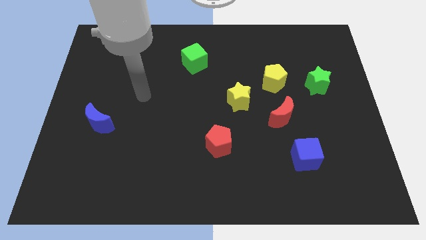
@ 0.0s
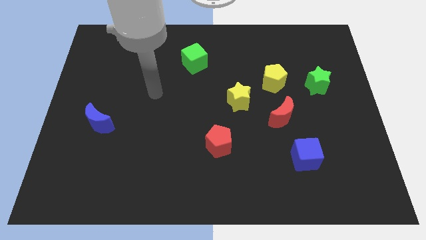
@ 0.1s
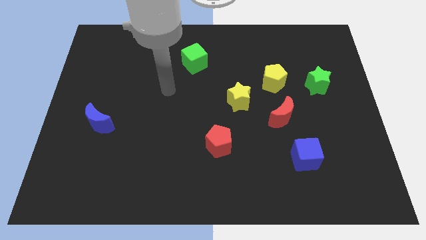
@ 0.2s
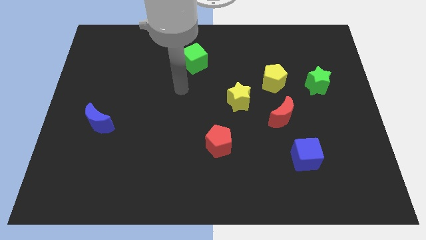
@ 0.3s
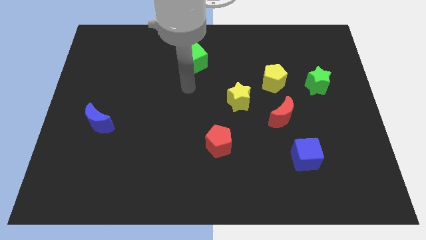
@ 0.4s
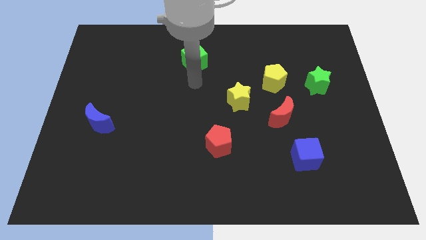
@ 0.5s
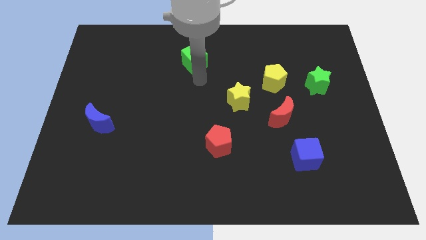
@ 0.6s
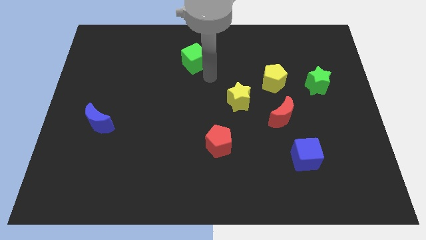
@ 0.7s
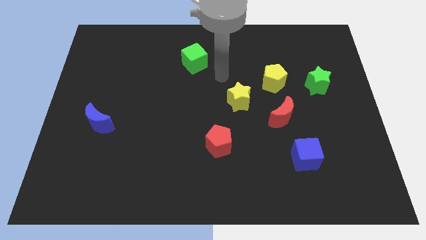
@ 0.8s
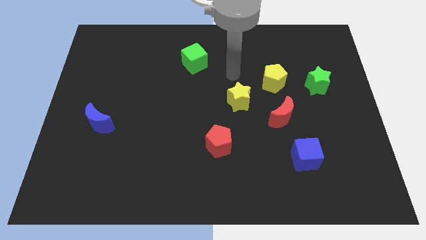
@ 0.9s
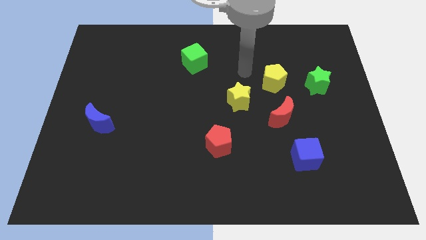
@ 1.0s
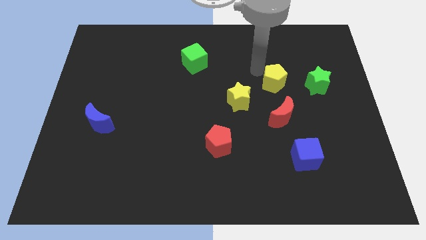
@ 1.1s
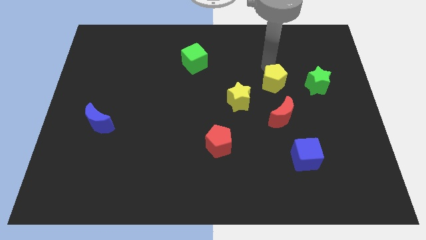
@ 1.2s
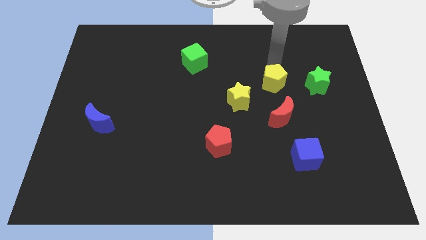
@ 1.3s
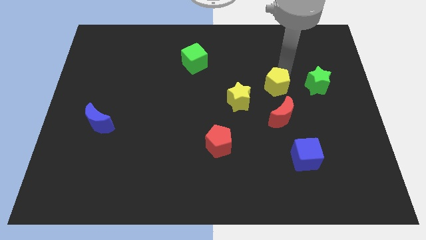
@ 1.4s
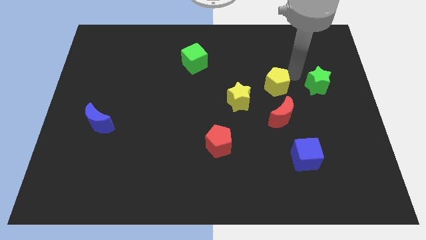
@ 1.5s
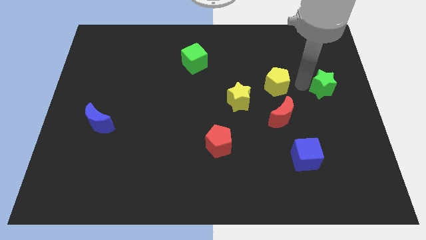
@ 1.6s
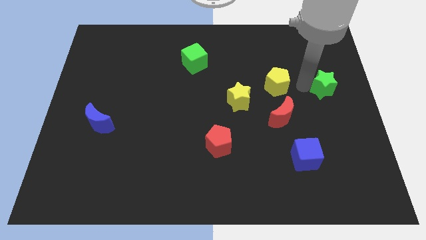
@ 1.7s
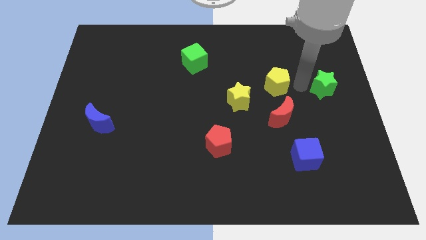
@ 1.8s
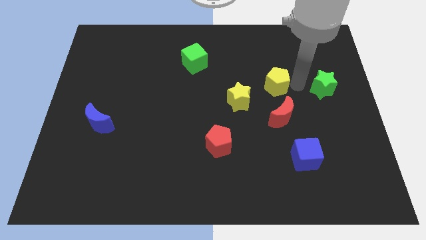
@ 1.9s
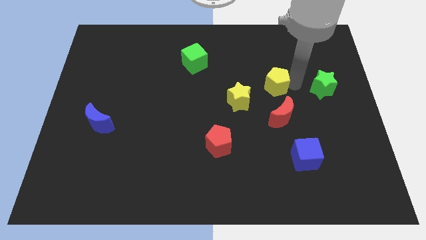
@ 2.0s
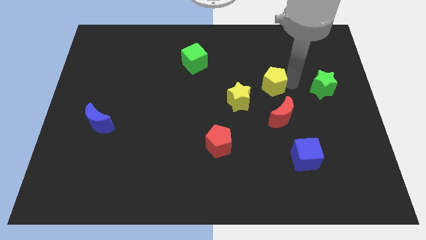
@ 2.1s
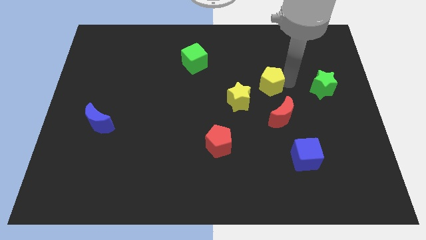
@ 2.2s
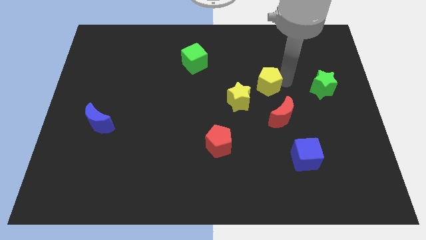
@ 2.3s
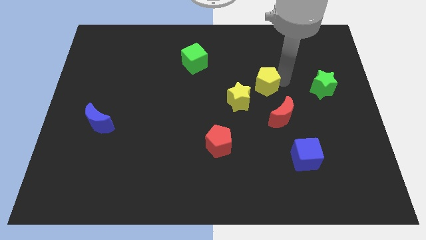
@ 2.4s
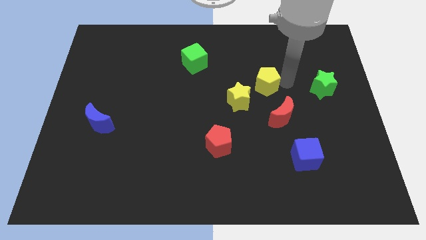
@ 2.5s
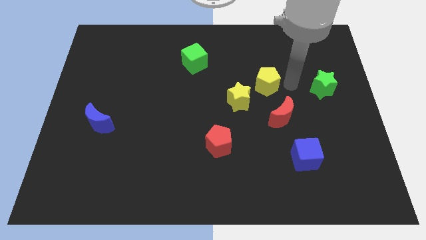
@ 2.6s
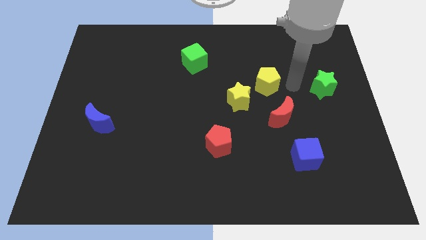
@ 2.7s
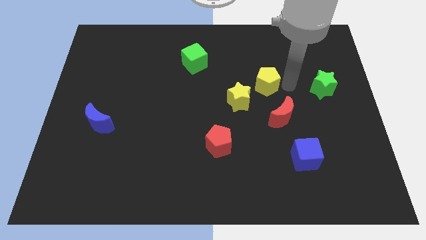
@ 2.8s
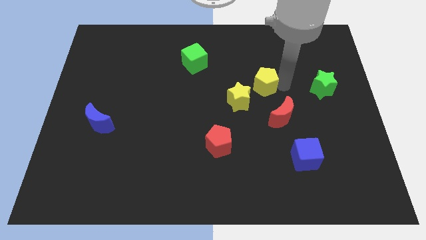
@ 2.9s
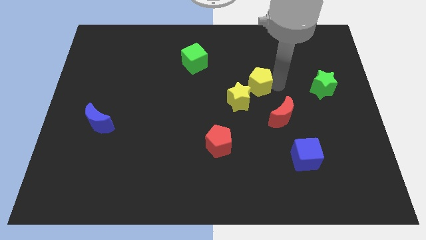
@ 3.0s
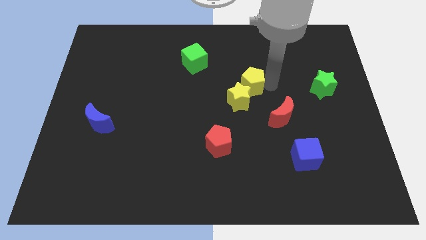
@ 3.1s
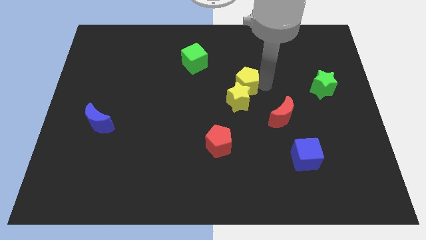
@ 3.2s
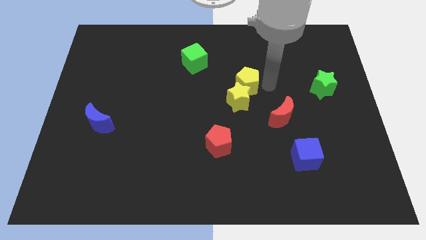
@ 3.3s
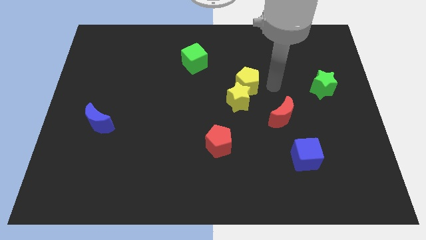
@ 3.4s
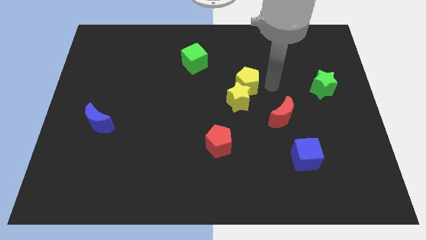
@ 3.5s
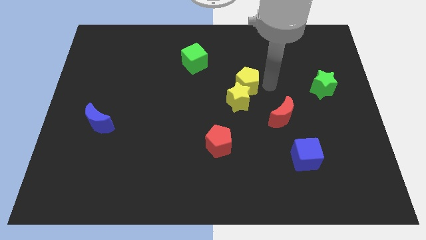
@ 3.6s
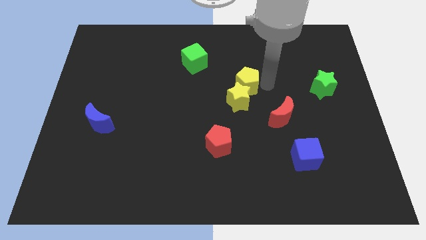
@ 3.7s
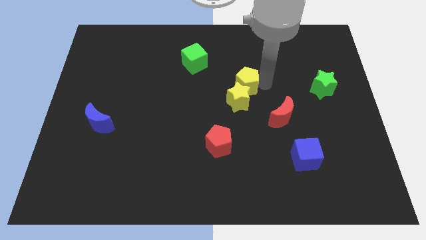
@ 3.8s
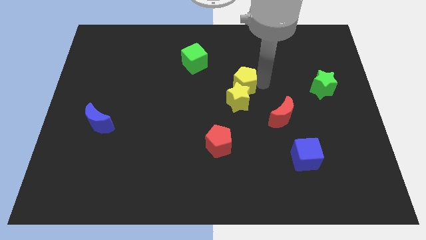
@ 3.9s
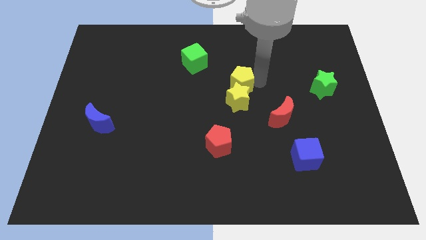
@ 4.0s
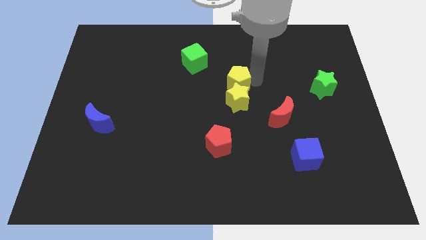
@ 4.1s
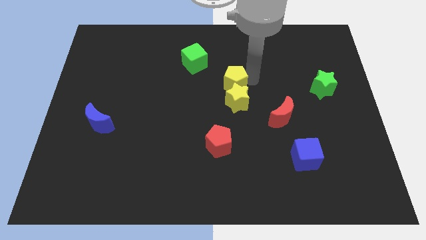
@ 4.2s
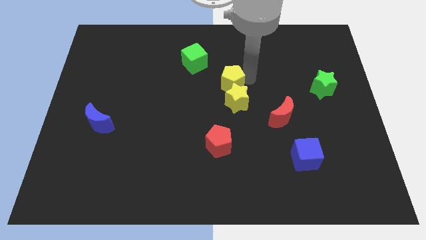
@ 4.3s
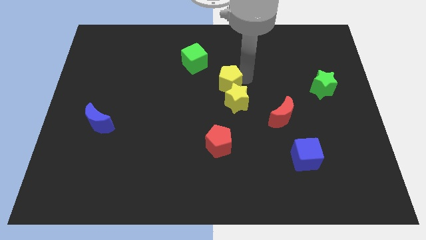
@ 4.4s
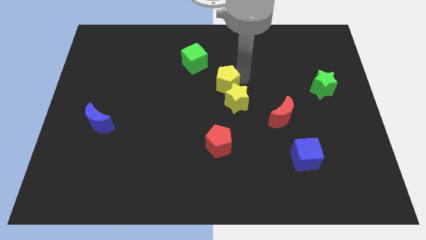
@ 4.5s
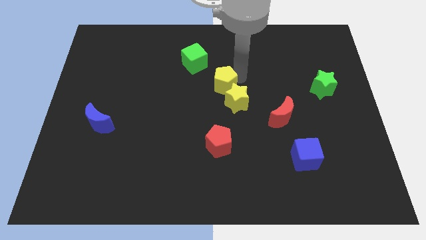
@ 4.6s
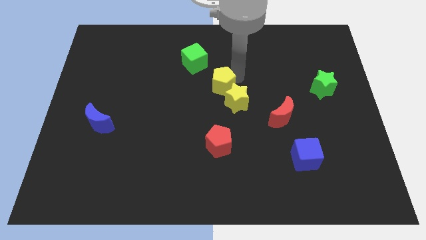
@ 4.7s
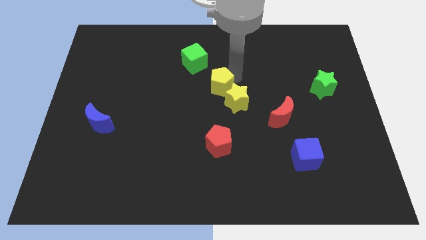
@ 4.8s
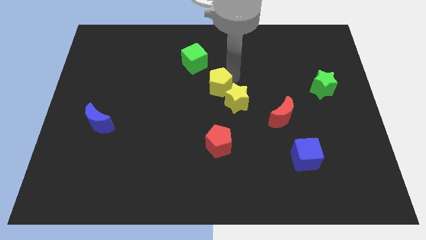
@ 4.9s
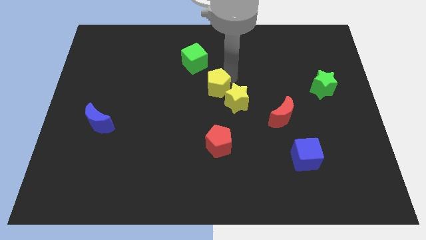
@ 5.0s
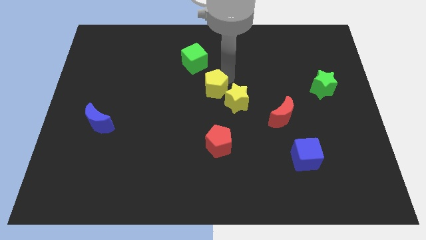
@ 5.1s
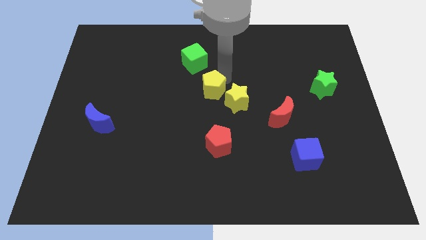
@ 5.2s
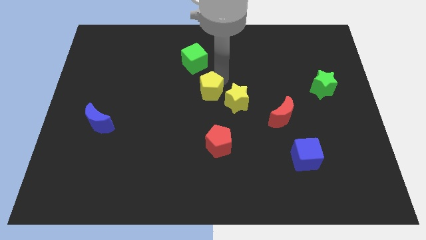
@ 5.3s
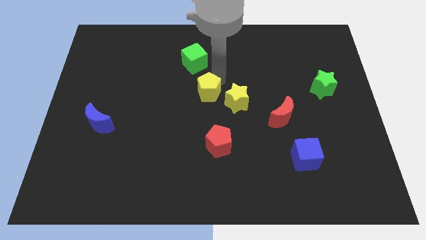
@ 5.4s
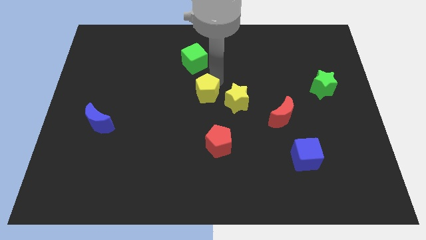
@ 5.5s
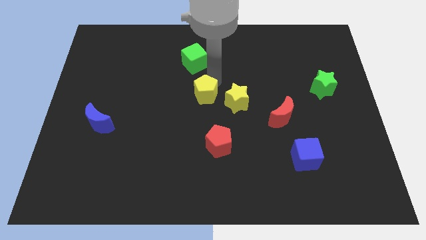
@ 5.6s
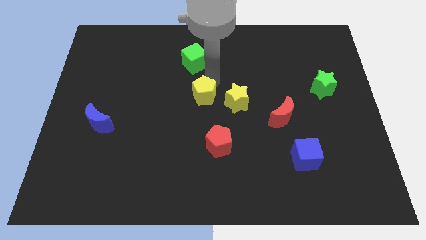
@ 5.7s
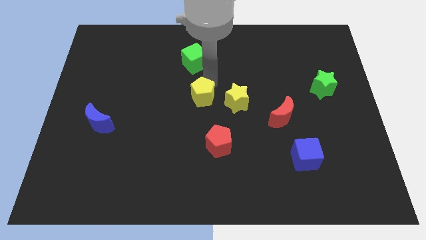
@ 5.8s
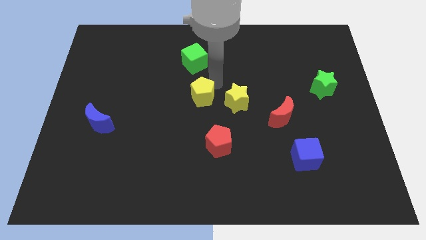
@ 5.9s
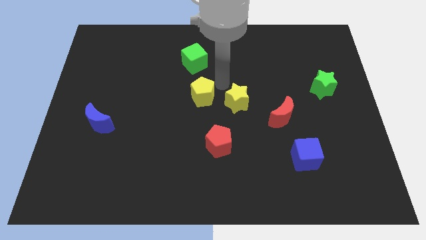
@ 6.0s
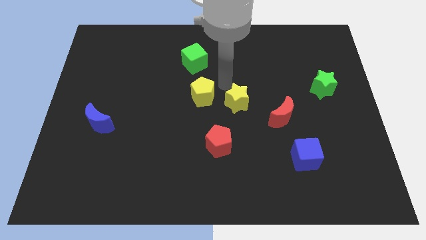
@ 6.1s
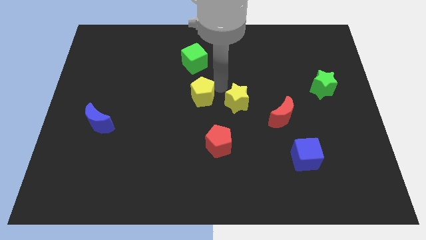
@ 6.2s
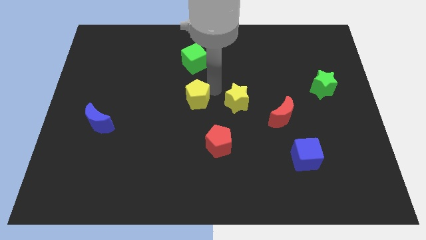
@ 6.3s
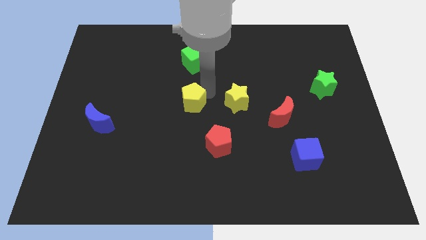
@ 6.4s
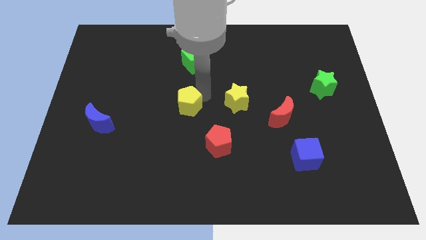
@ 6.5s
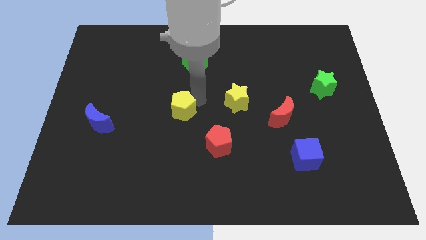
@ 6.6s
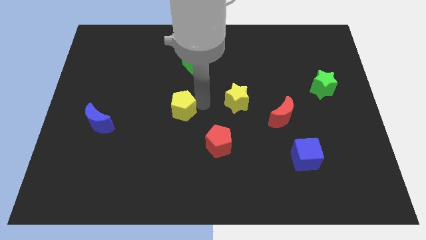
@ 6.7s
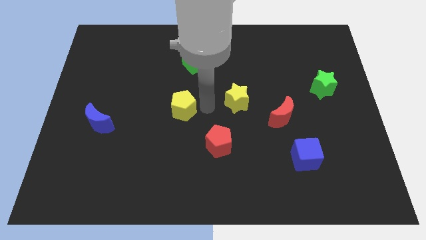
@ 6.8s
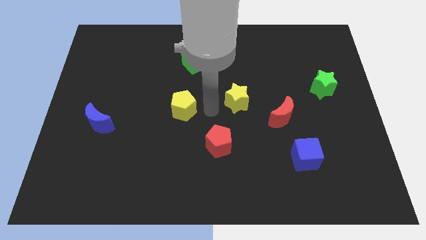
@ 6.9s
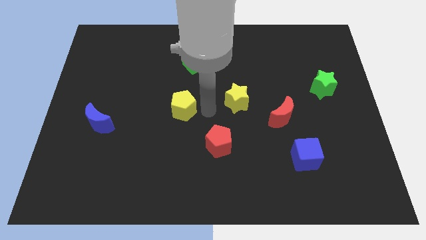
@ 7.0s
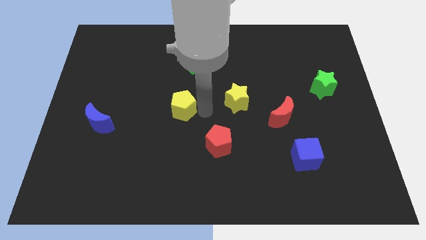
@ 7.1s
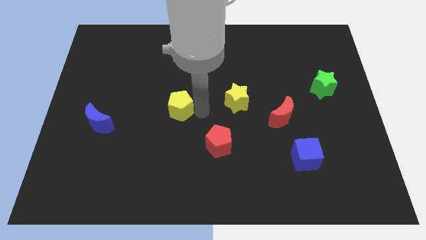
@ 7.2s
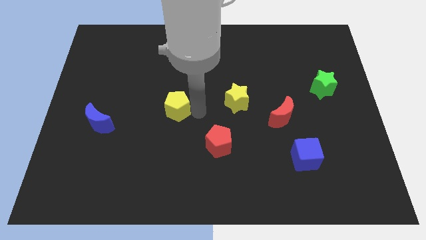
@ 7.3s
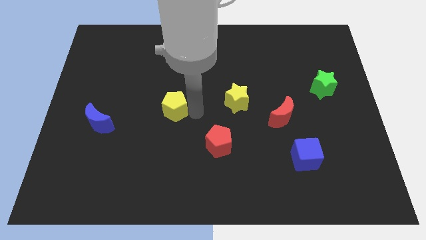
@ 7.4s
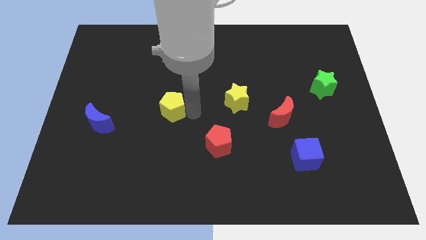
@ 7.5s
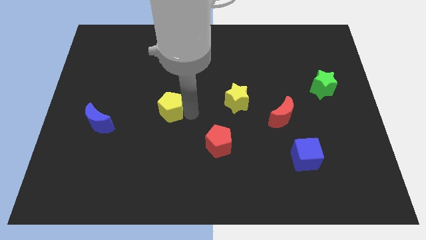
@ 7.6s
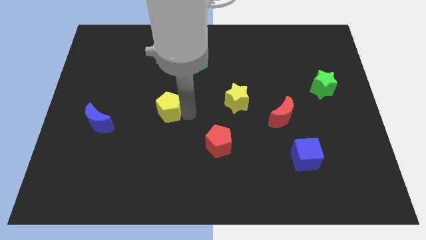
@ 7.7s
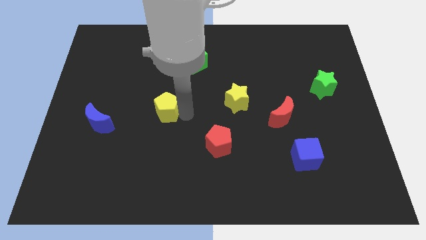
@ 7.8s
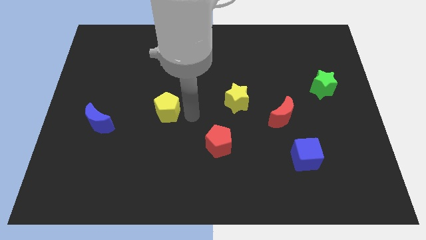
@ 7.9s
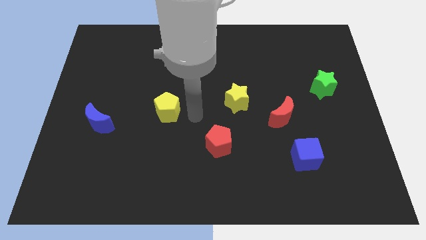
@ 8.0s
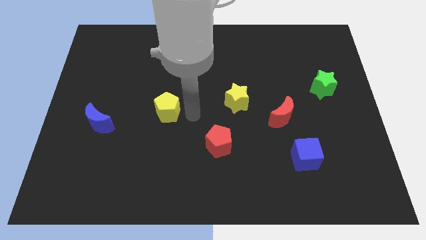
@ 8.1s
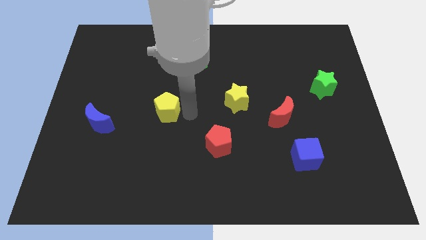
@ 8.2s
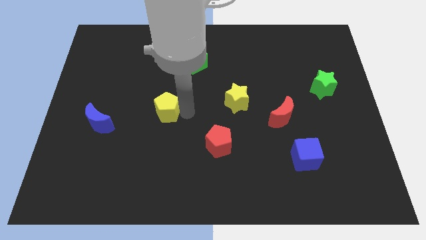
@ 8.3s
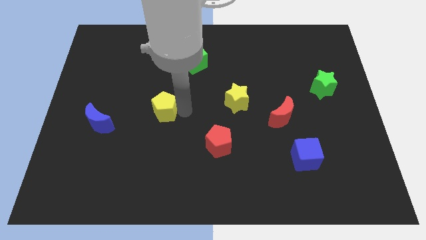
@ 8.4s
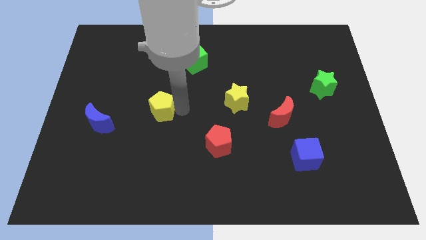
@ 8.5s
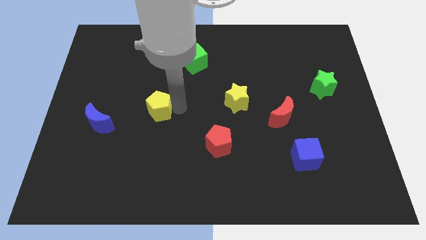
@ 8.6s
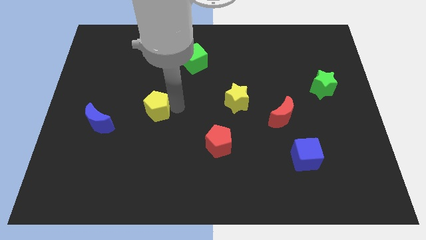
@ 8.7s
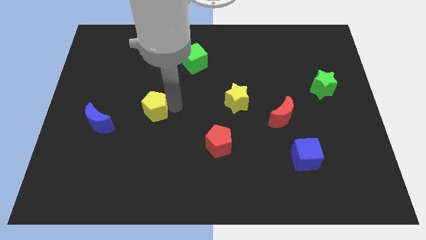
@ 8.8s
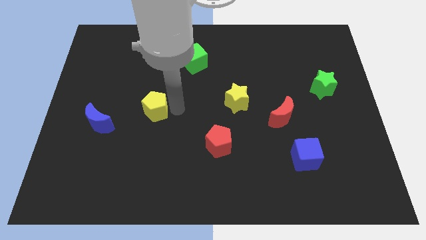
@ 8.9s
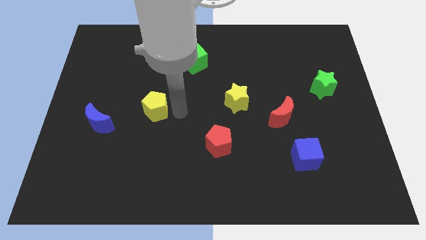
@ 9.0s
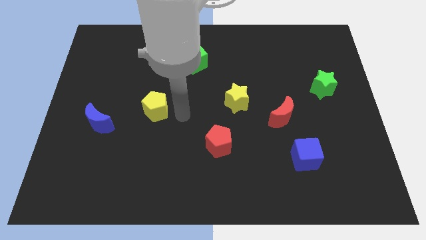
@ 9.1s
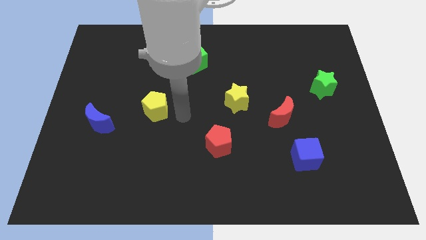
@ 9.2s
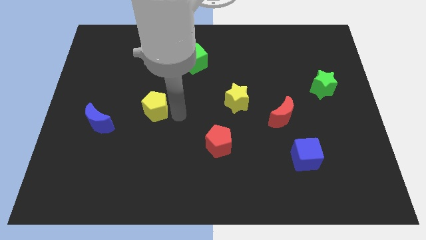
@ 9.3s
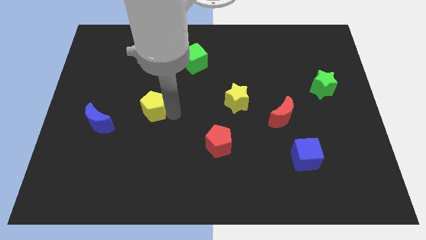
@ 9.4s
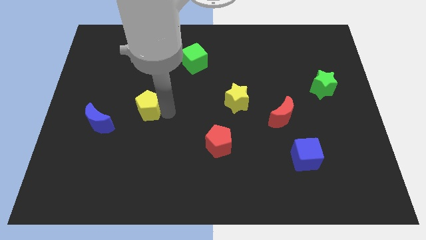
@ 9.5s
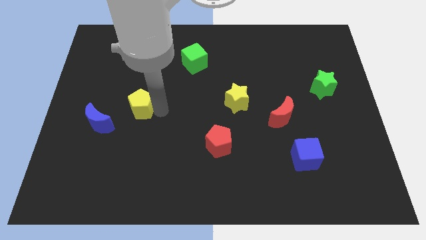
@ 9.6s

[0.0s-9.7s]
slide the yellow pentagon diagonally up and to the right of the blue moon
